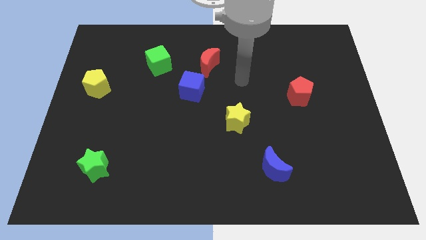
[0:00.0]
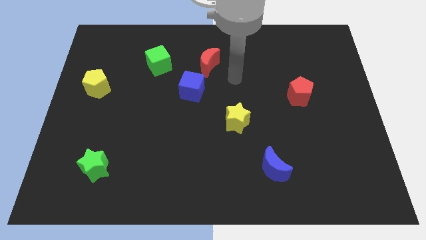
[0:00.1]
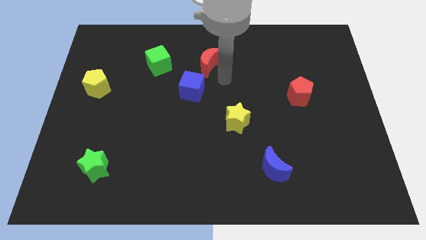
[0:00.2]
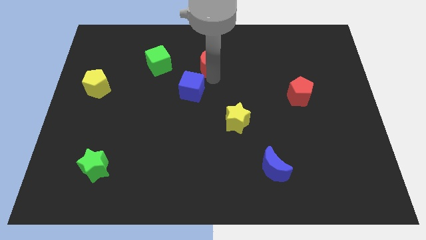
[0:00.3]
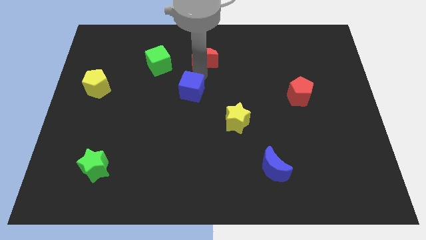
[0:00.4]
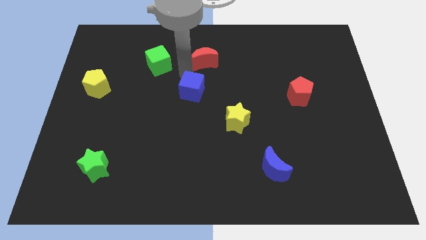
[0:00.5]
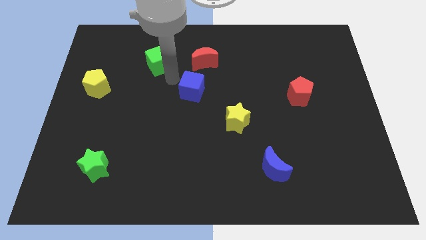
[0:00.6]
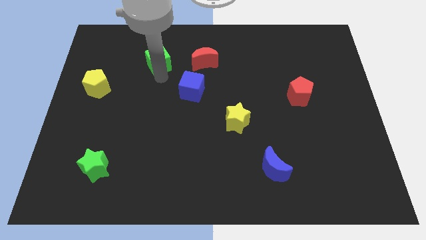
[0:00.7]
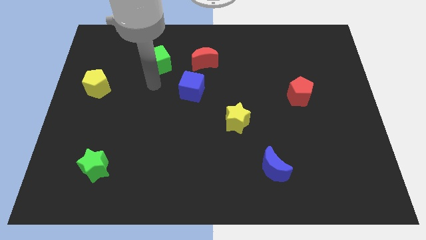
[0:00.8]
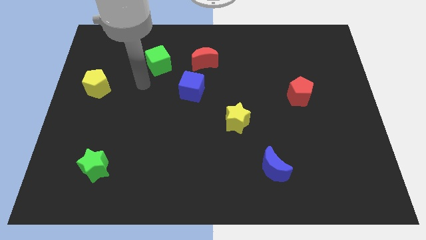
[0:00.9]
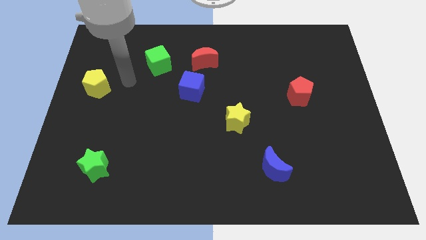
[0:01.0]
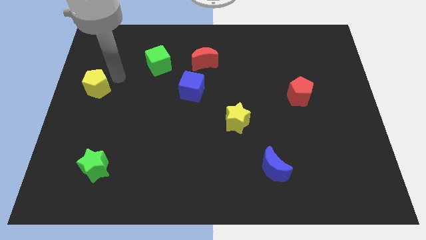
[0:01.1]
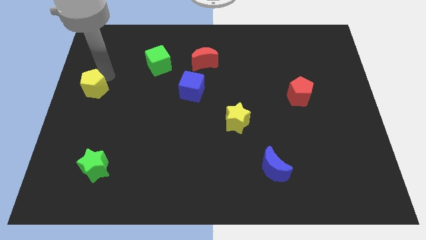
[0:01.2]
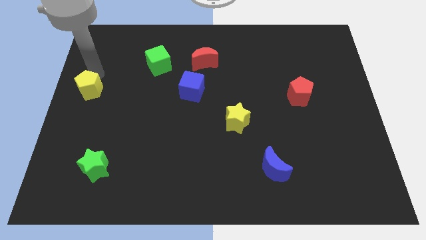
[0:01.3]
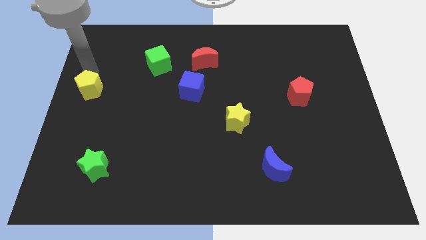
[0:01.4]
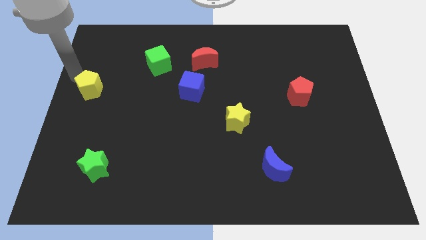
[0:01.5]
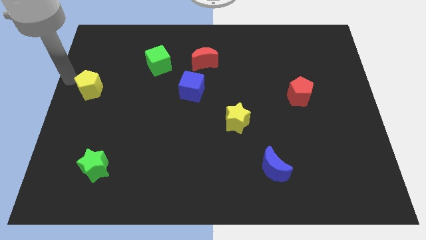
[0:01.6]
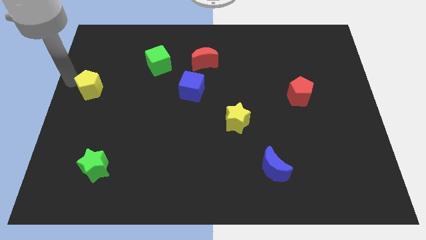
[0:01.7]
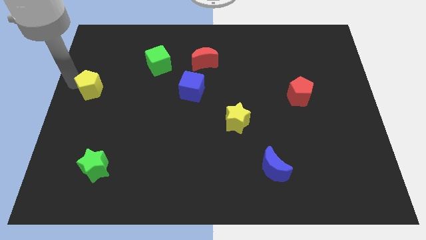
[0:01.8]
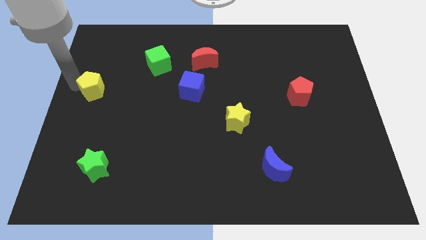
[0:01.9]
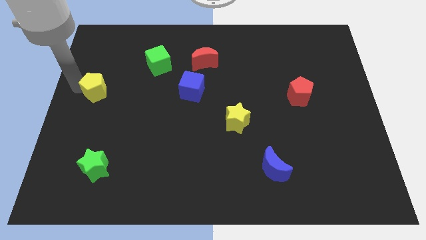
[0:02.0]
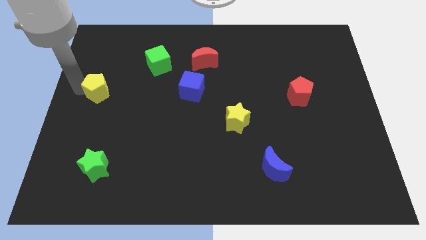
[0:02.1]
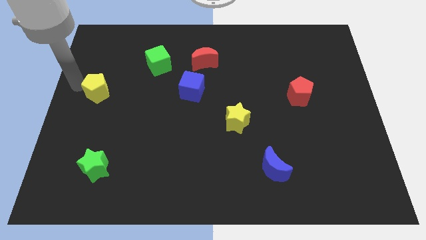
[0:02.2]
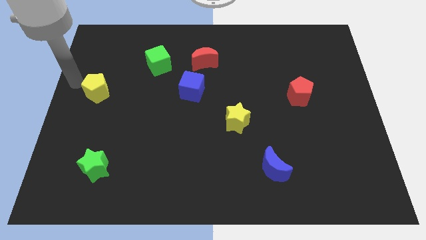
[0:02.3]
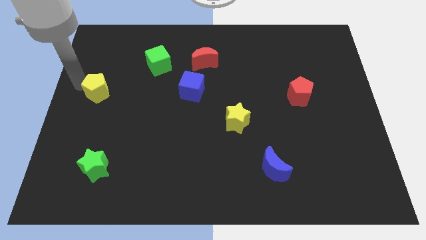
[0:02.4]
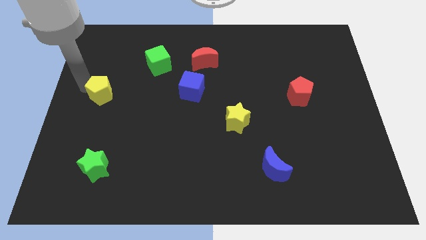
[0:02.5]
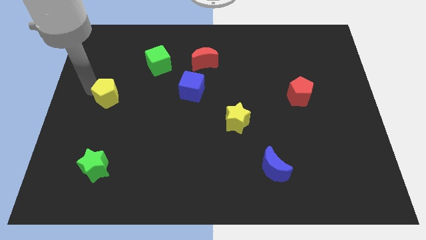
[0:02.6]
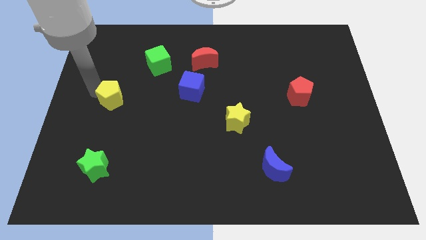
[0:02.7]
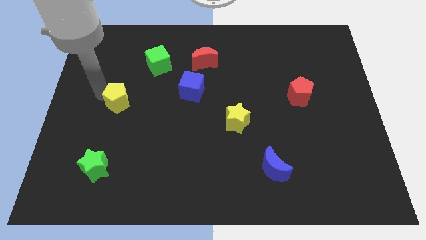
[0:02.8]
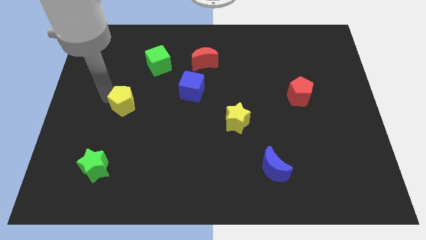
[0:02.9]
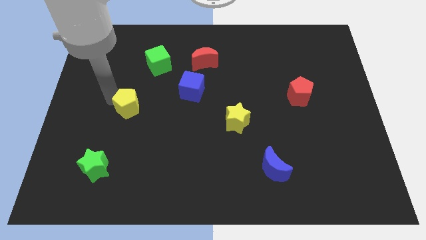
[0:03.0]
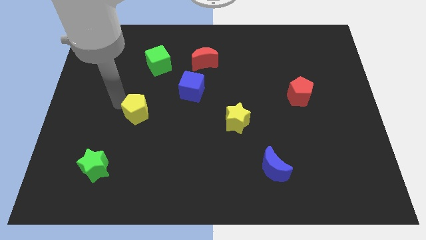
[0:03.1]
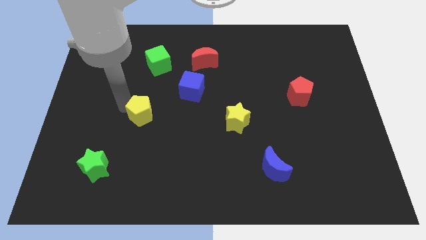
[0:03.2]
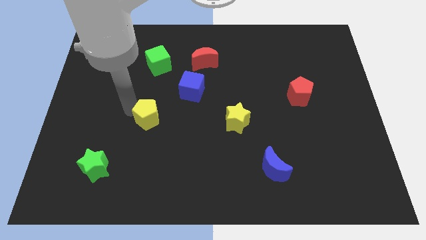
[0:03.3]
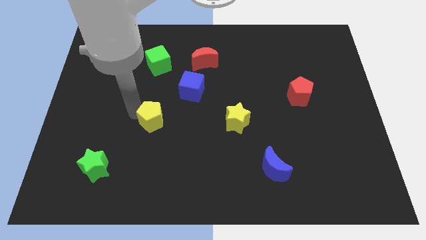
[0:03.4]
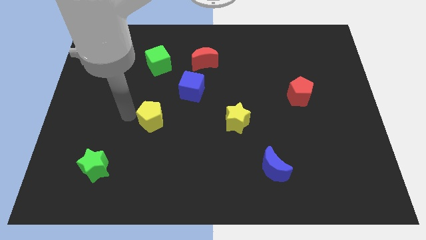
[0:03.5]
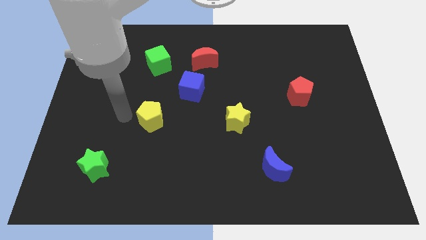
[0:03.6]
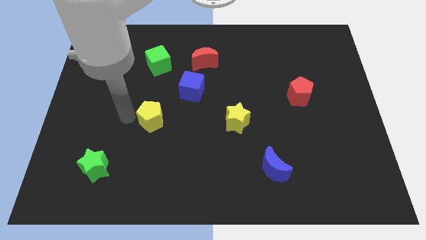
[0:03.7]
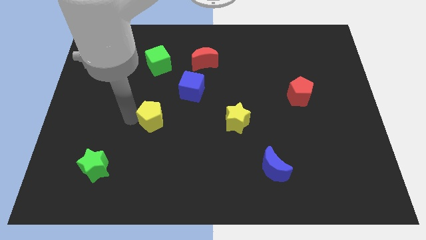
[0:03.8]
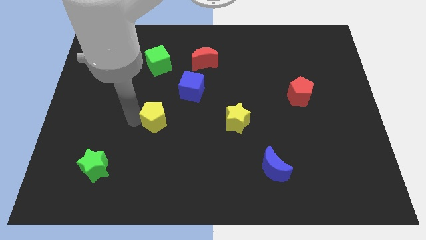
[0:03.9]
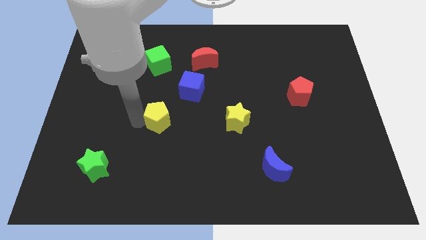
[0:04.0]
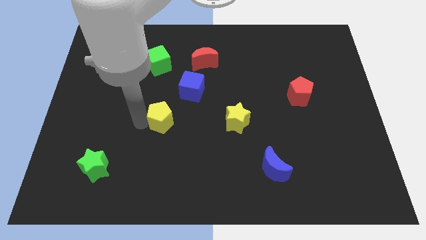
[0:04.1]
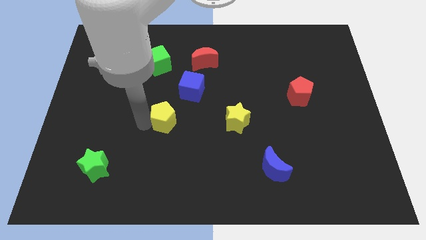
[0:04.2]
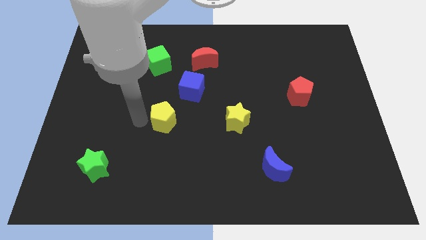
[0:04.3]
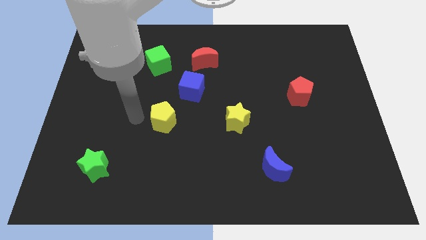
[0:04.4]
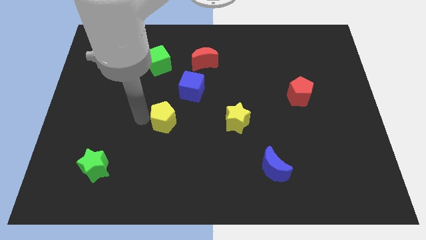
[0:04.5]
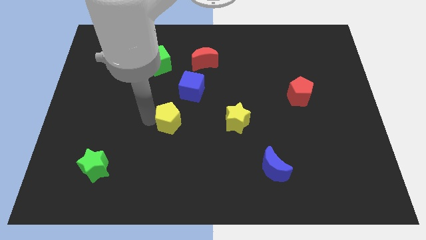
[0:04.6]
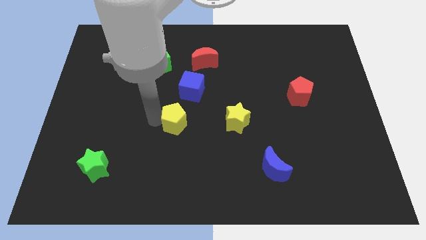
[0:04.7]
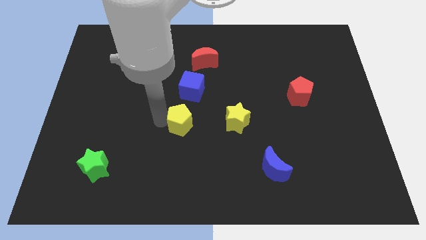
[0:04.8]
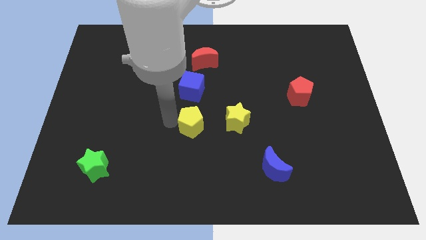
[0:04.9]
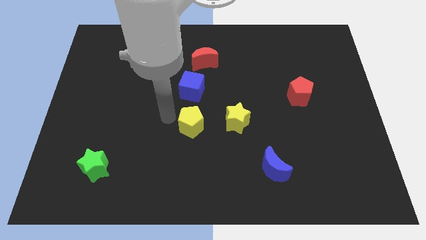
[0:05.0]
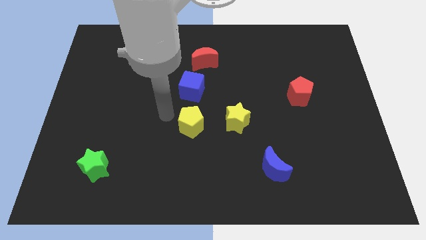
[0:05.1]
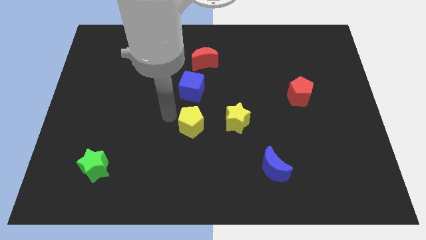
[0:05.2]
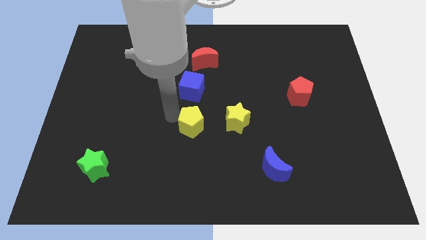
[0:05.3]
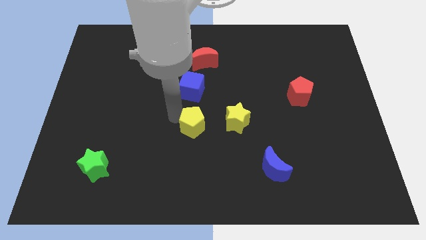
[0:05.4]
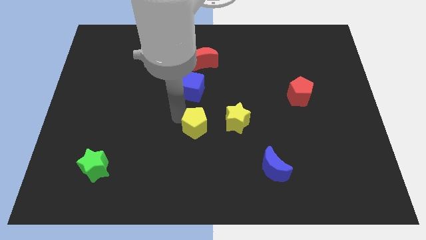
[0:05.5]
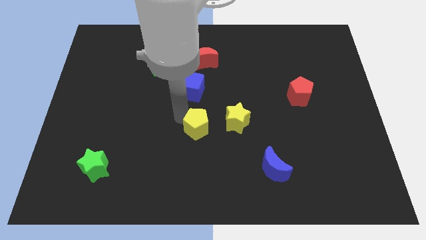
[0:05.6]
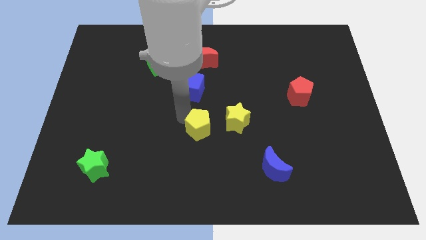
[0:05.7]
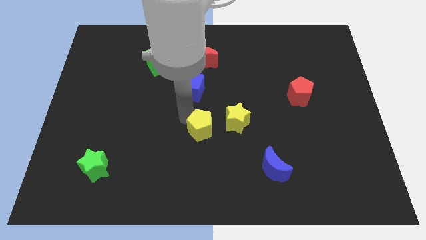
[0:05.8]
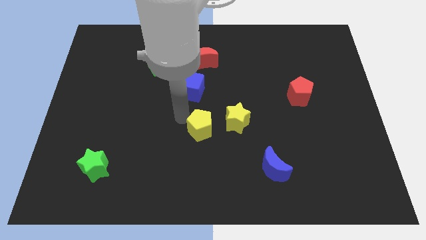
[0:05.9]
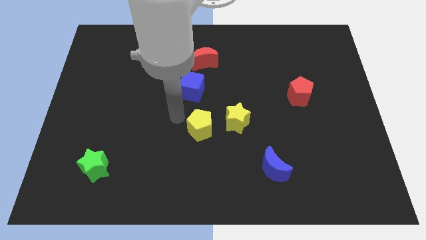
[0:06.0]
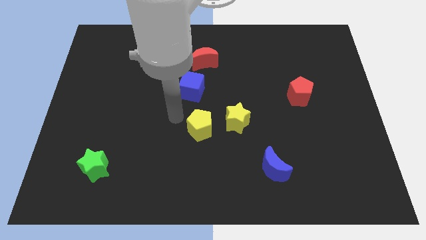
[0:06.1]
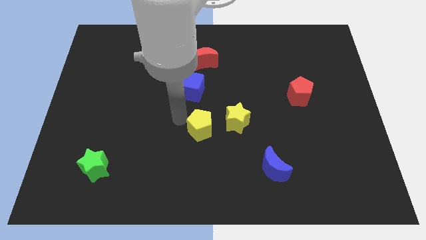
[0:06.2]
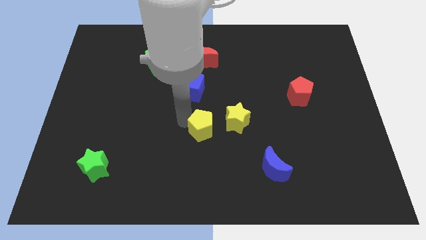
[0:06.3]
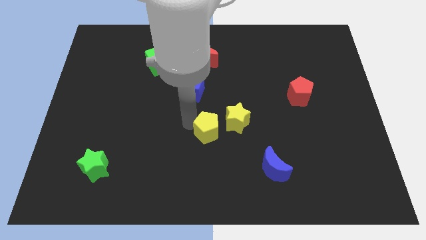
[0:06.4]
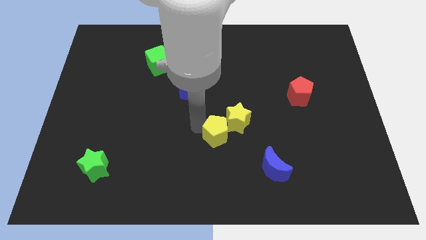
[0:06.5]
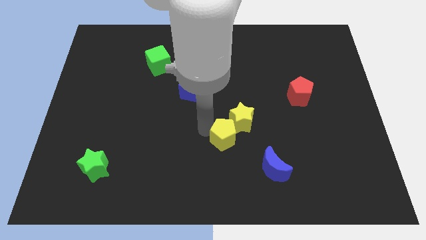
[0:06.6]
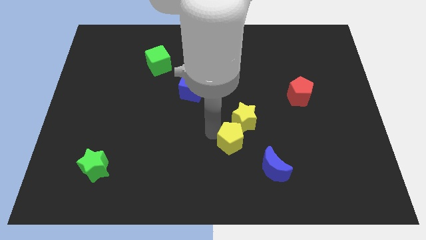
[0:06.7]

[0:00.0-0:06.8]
slide the yellow pentagon to the top left of the blue moon
